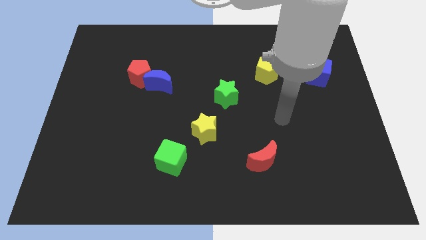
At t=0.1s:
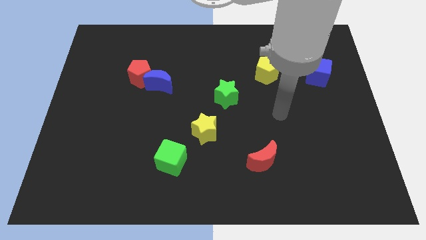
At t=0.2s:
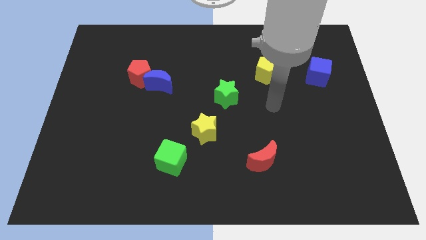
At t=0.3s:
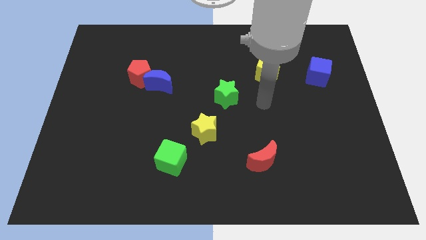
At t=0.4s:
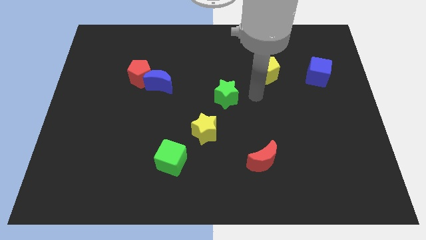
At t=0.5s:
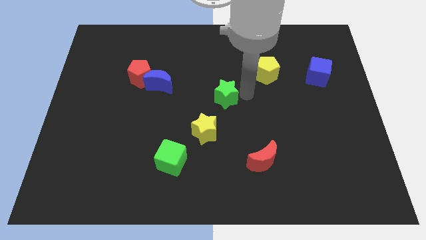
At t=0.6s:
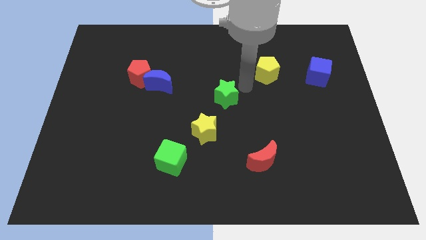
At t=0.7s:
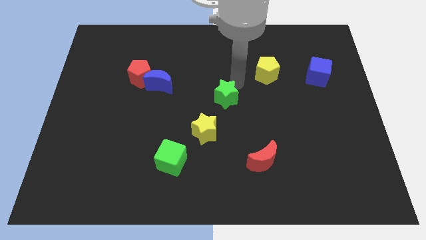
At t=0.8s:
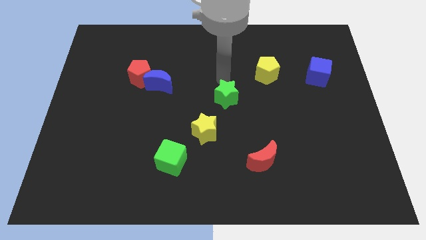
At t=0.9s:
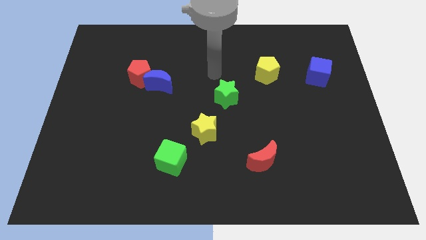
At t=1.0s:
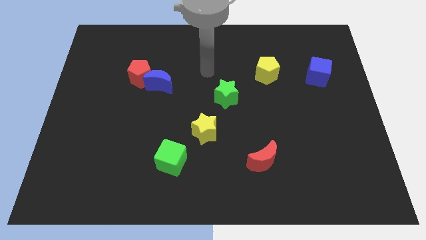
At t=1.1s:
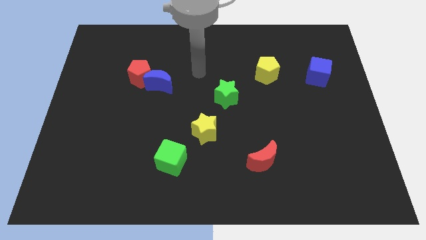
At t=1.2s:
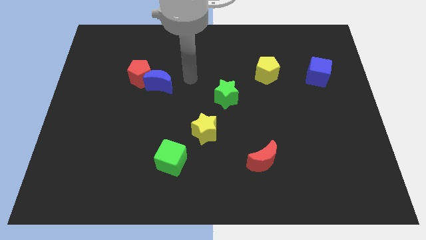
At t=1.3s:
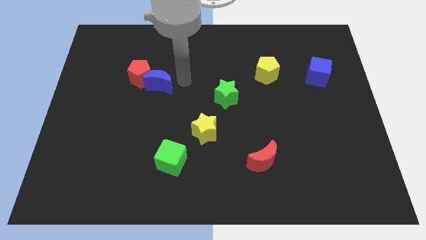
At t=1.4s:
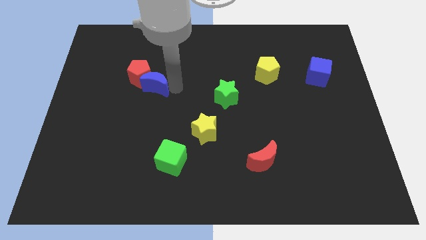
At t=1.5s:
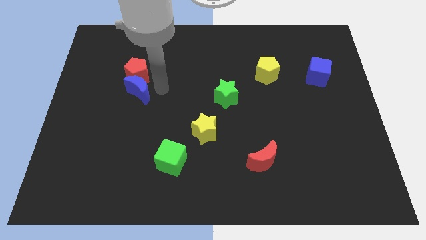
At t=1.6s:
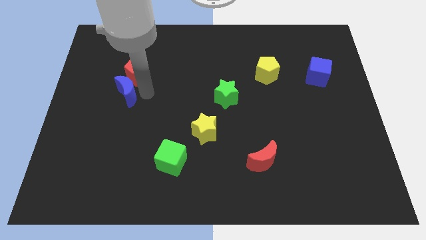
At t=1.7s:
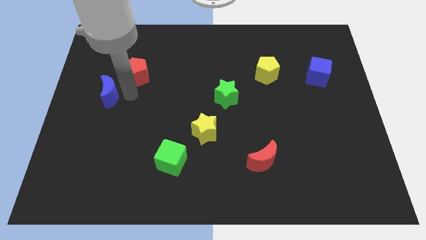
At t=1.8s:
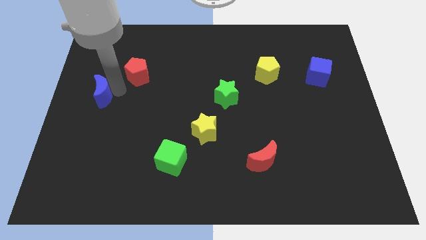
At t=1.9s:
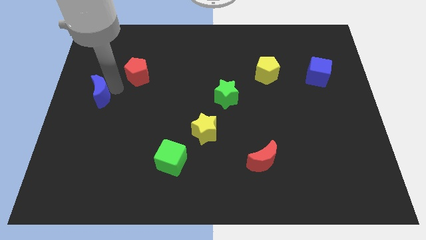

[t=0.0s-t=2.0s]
move the red pentagon away from the blue moon

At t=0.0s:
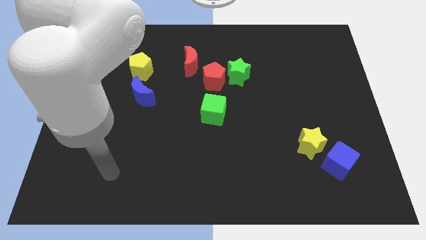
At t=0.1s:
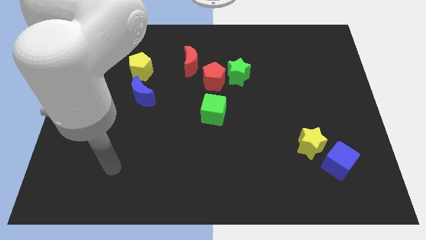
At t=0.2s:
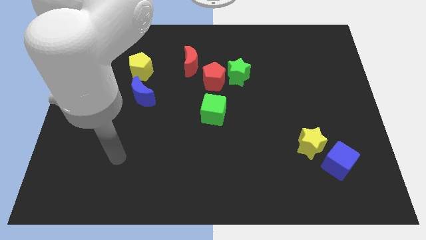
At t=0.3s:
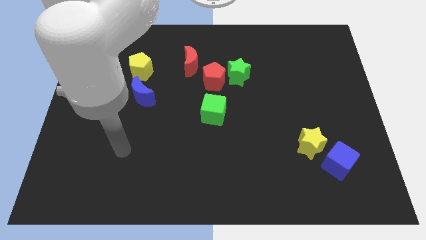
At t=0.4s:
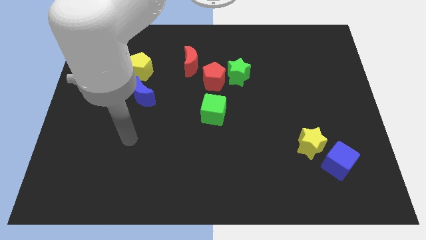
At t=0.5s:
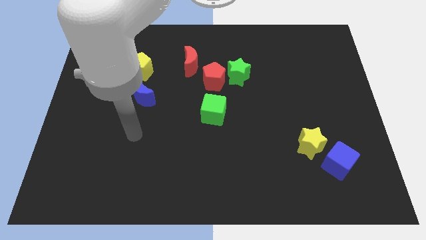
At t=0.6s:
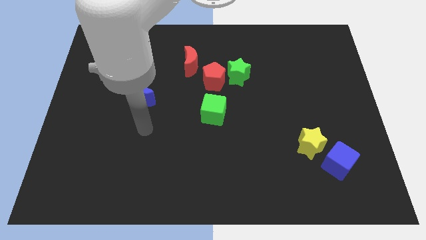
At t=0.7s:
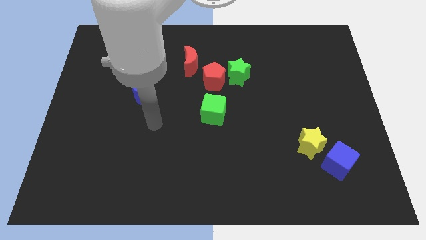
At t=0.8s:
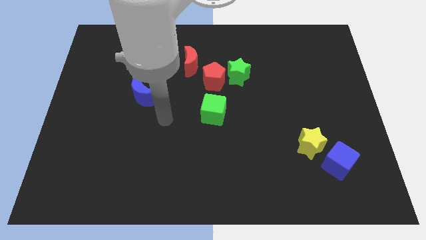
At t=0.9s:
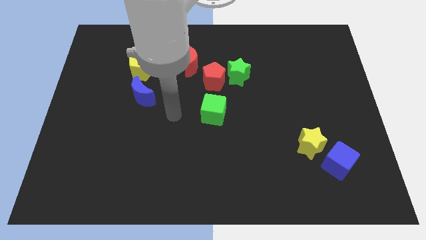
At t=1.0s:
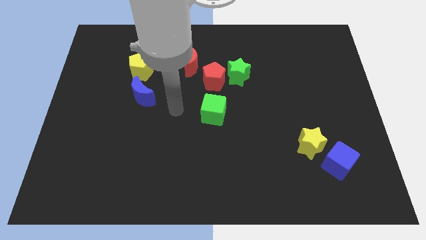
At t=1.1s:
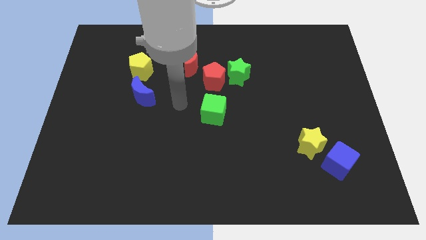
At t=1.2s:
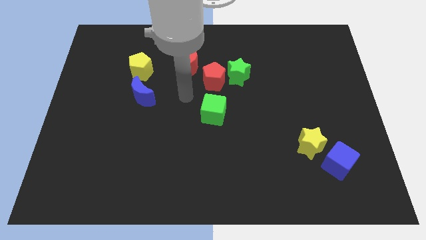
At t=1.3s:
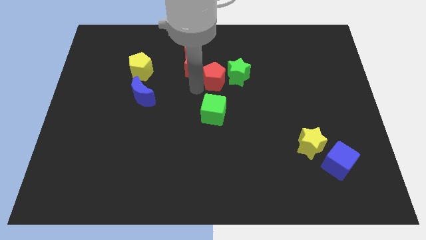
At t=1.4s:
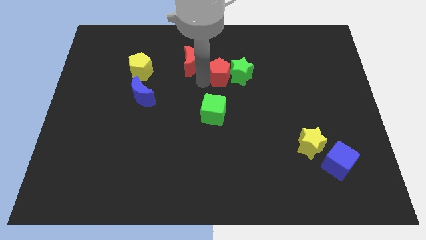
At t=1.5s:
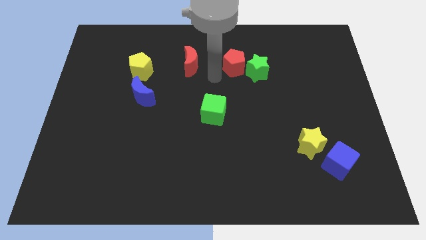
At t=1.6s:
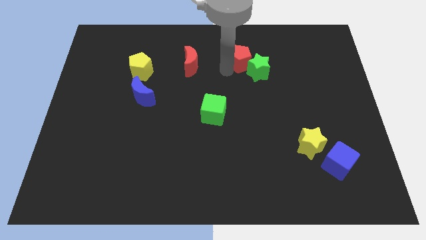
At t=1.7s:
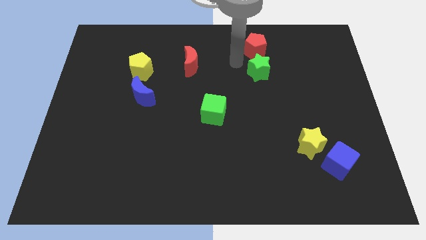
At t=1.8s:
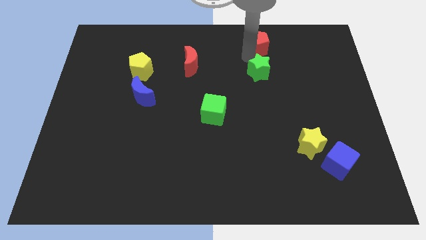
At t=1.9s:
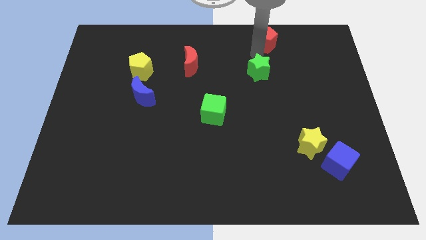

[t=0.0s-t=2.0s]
pull the green star apart from the red pentagon

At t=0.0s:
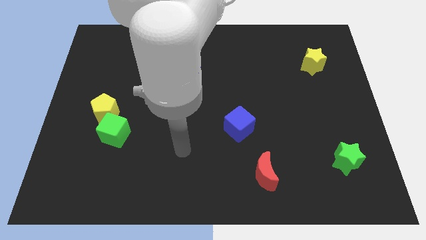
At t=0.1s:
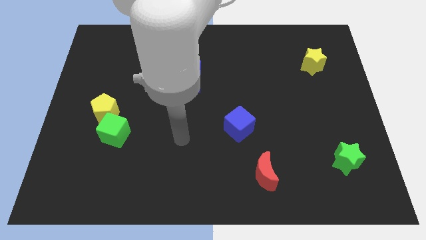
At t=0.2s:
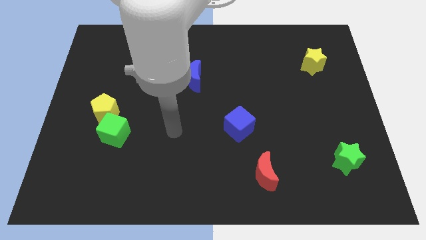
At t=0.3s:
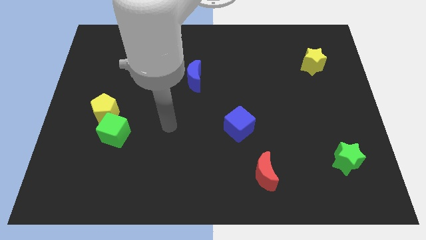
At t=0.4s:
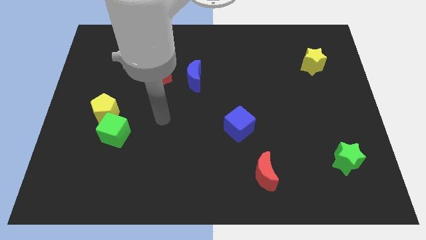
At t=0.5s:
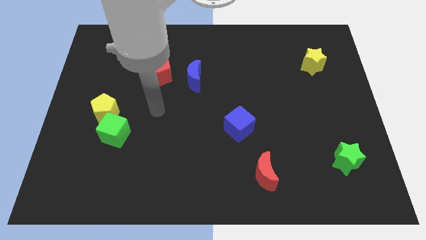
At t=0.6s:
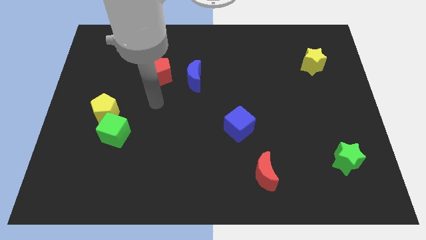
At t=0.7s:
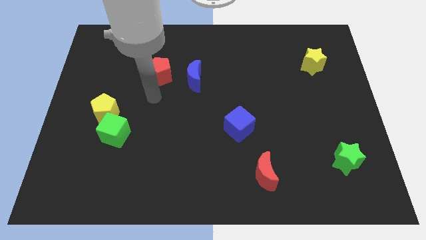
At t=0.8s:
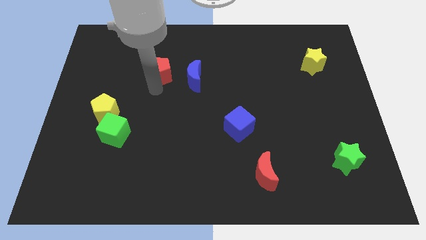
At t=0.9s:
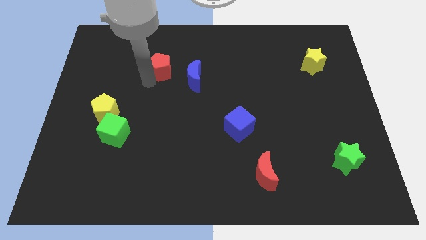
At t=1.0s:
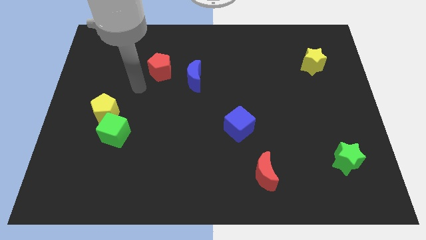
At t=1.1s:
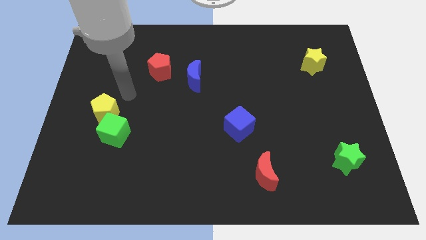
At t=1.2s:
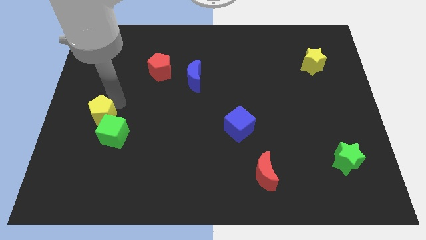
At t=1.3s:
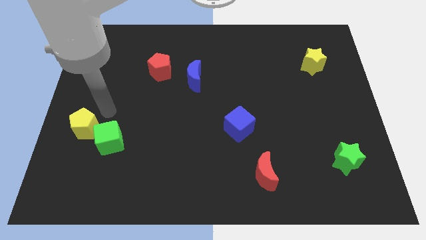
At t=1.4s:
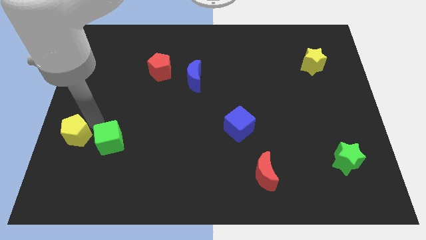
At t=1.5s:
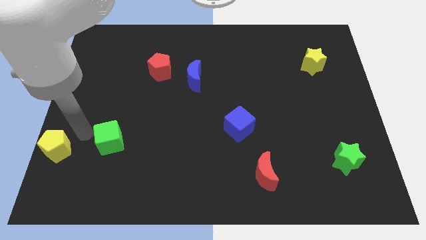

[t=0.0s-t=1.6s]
move the green cube away from the yellow pentagon

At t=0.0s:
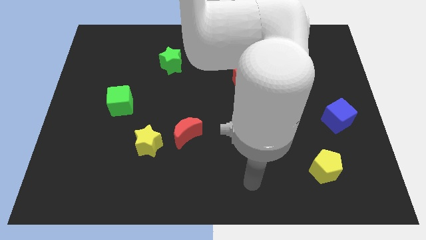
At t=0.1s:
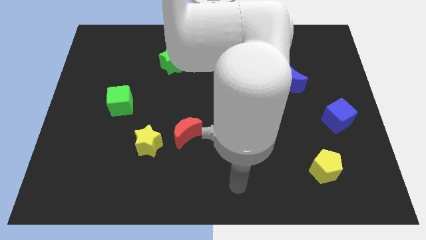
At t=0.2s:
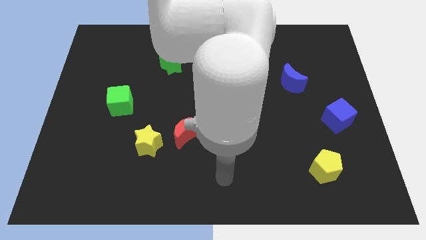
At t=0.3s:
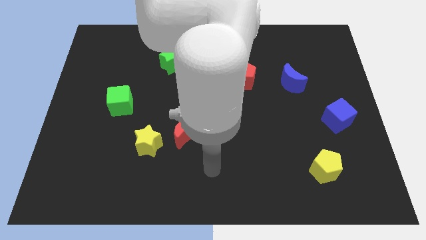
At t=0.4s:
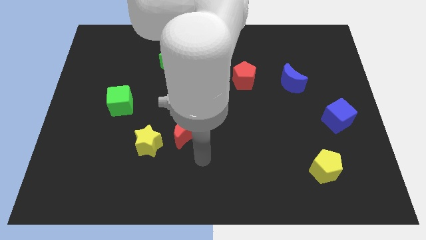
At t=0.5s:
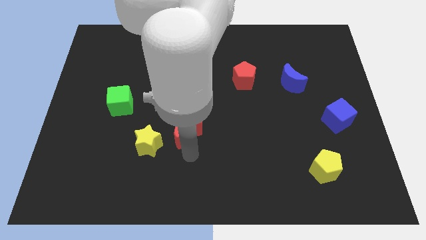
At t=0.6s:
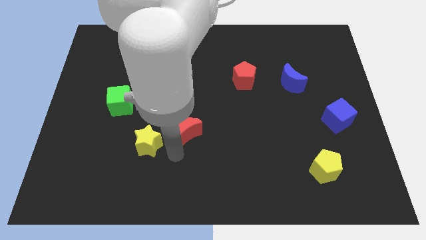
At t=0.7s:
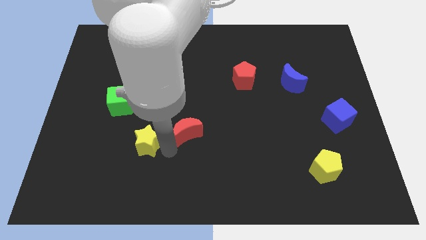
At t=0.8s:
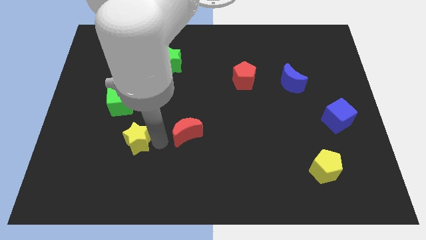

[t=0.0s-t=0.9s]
pull the red moon apart from the yellow star

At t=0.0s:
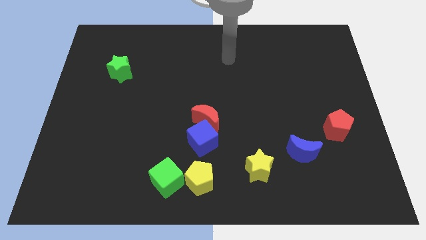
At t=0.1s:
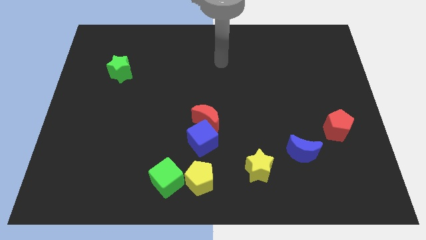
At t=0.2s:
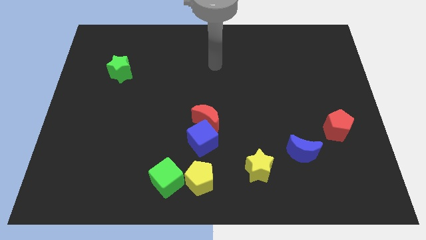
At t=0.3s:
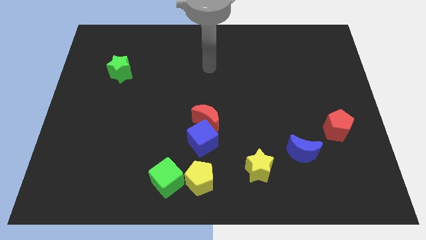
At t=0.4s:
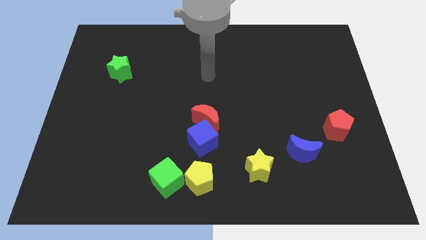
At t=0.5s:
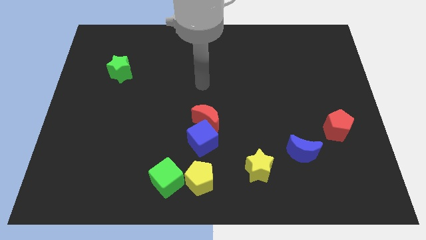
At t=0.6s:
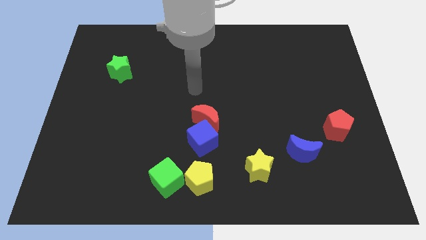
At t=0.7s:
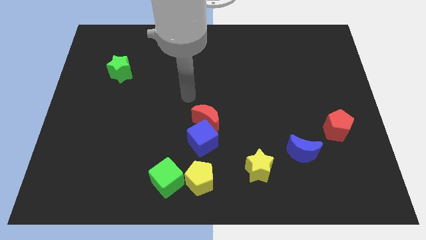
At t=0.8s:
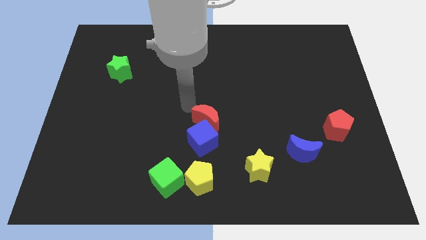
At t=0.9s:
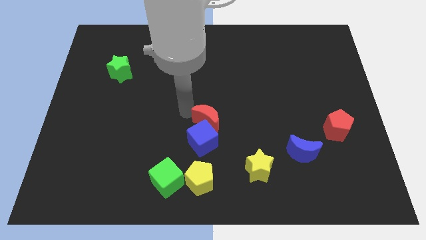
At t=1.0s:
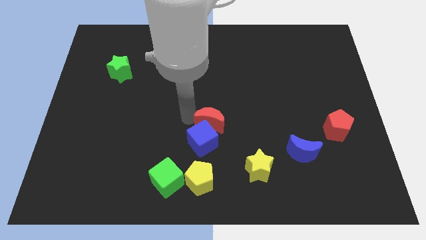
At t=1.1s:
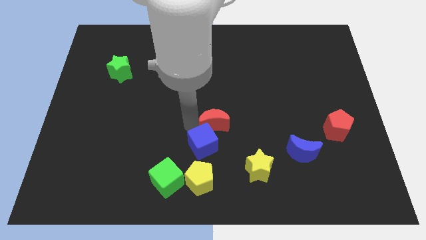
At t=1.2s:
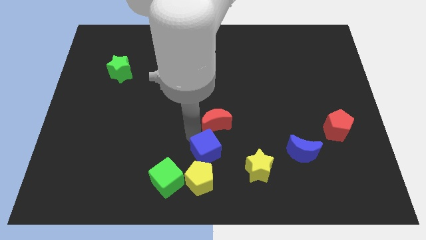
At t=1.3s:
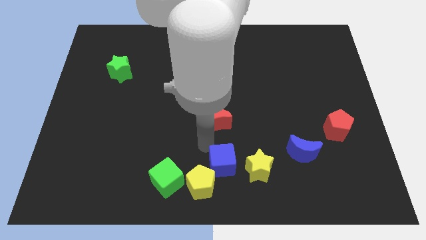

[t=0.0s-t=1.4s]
move the red moon away from the blue cube

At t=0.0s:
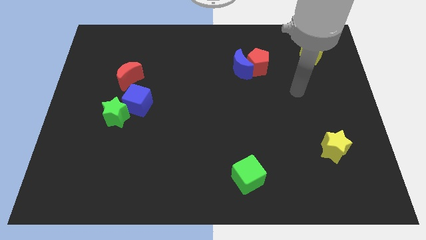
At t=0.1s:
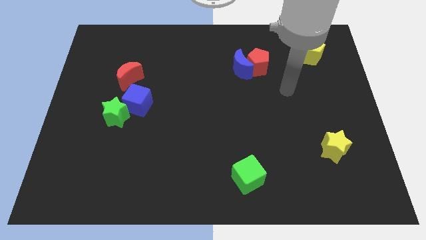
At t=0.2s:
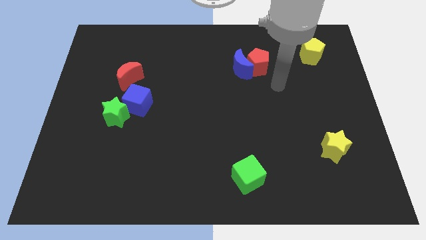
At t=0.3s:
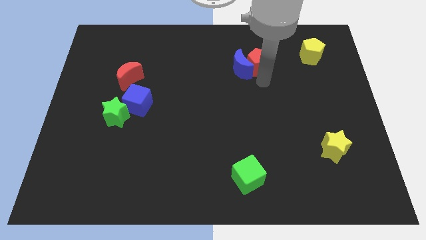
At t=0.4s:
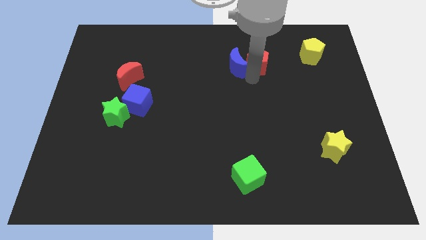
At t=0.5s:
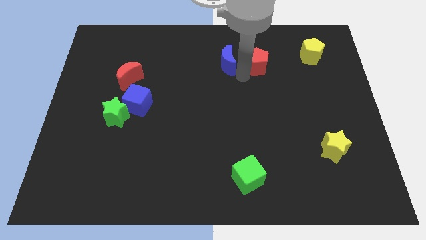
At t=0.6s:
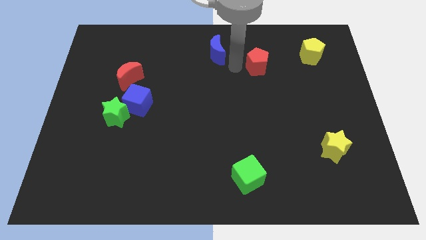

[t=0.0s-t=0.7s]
pull the red pentagon apart from the blue moon

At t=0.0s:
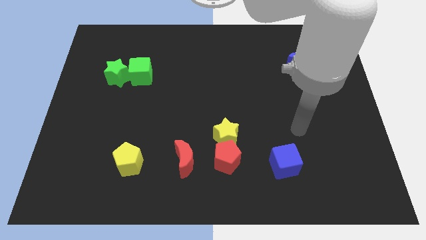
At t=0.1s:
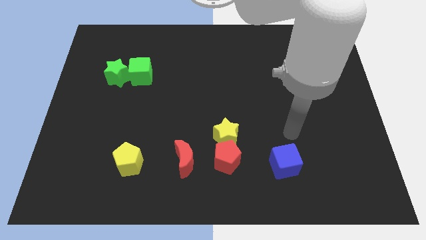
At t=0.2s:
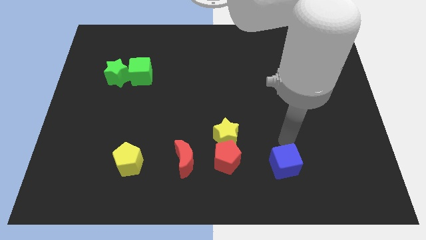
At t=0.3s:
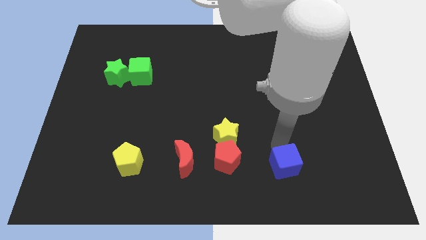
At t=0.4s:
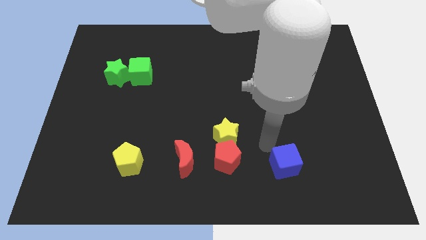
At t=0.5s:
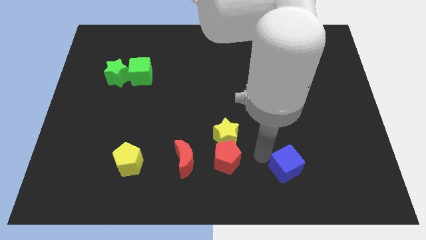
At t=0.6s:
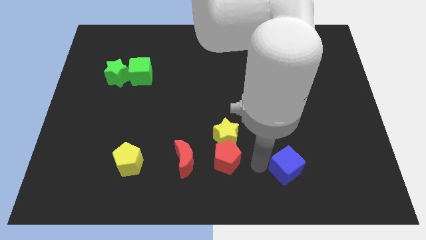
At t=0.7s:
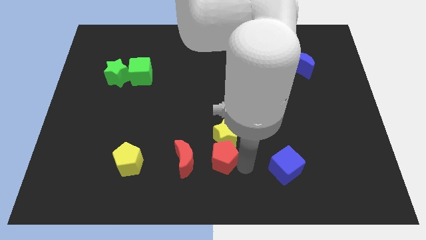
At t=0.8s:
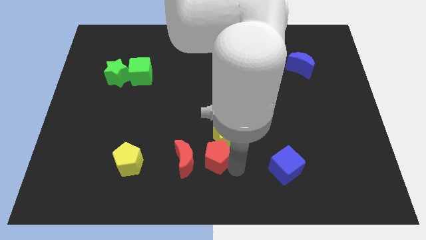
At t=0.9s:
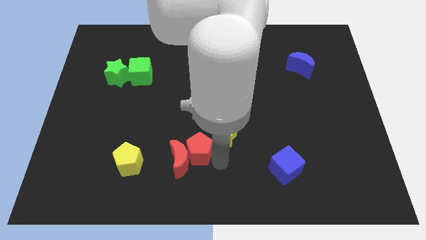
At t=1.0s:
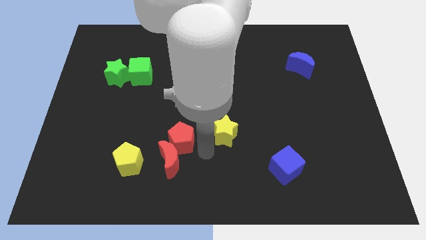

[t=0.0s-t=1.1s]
move the yellow star away from the red pentagon
